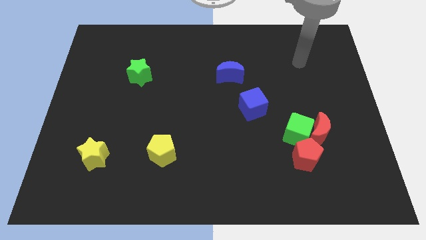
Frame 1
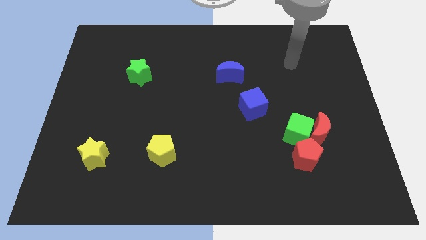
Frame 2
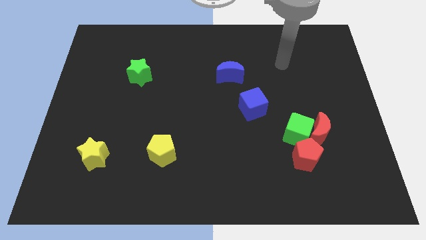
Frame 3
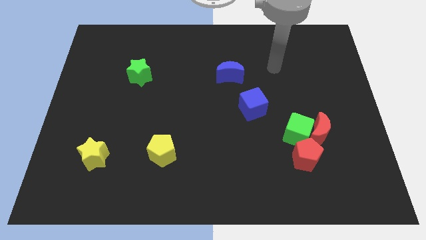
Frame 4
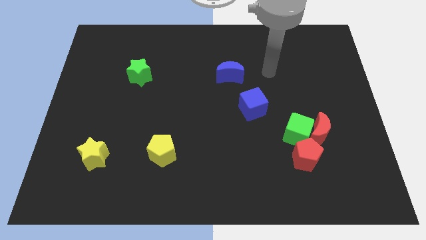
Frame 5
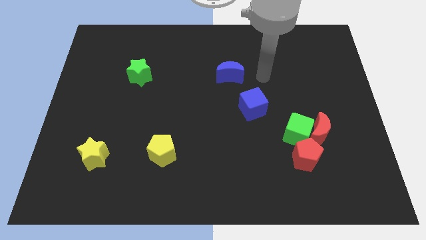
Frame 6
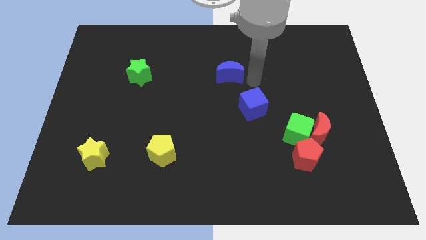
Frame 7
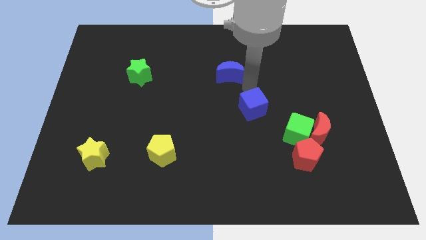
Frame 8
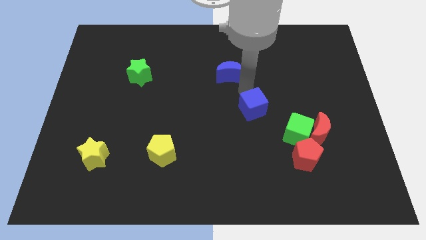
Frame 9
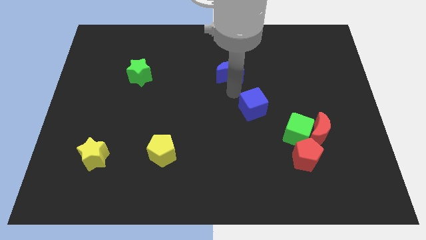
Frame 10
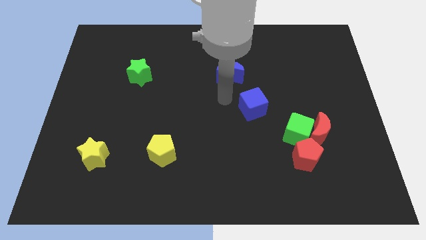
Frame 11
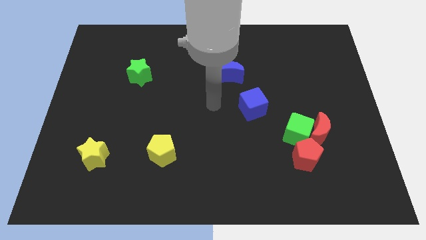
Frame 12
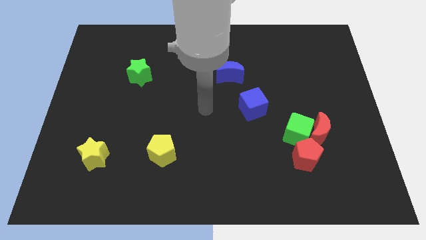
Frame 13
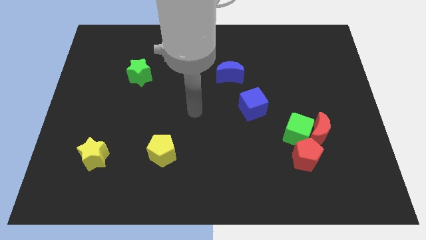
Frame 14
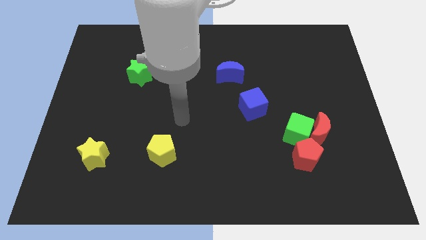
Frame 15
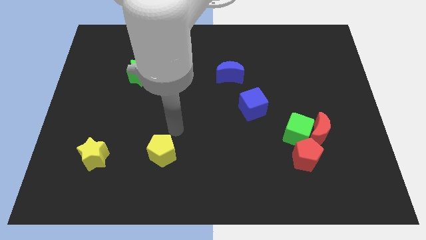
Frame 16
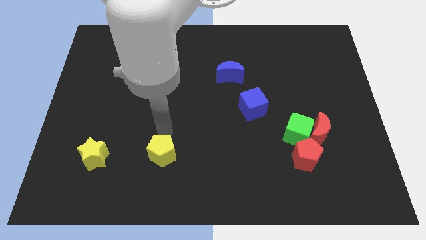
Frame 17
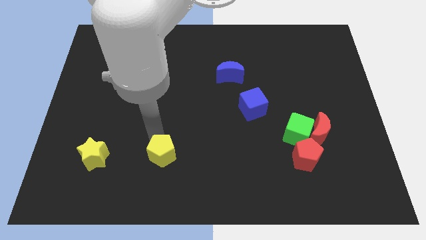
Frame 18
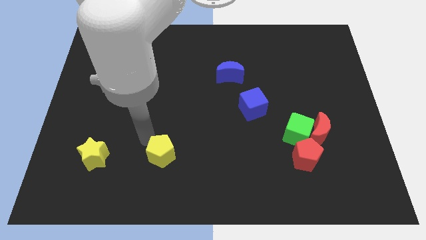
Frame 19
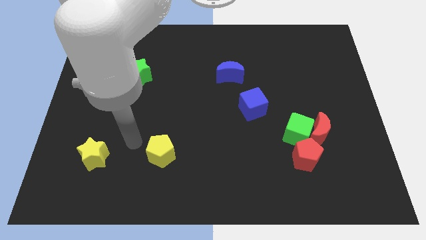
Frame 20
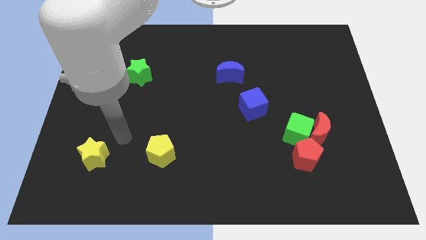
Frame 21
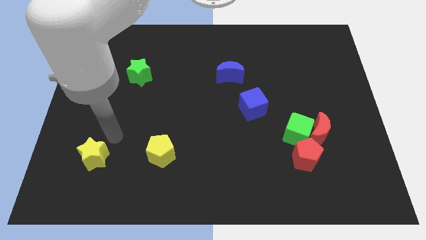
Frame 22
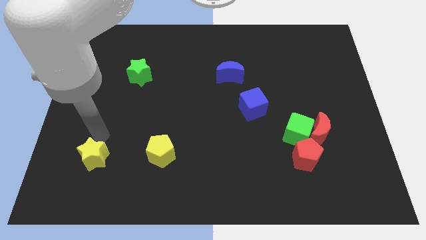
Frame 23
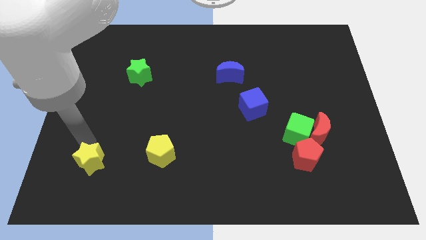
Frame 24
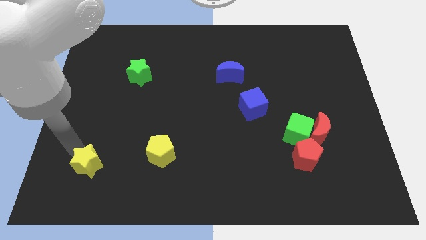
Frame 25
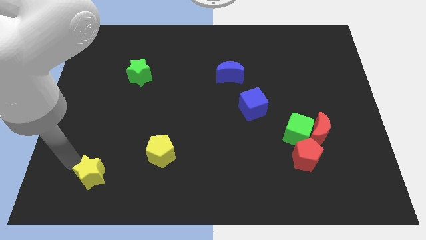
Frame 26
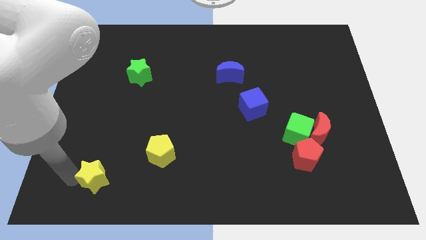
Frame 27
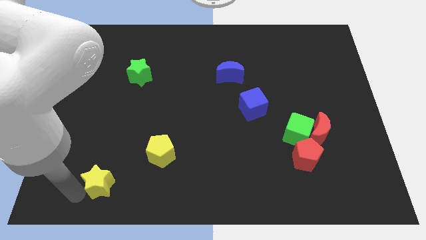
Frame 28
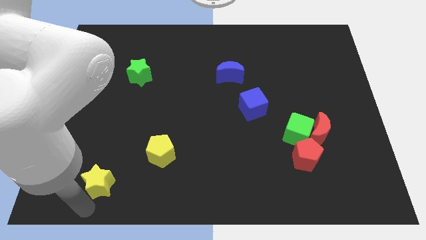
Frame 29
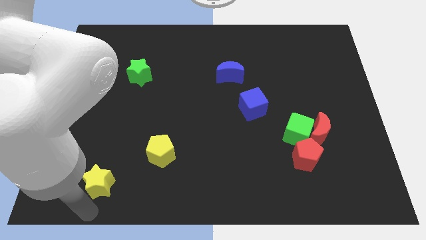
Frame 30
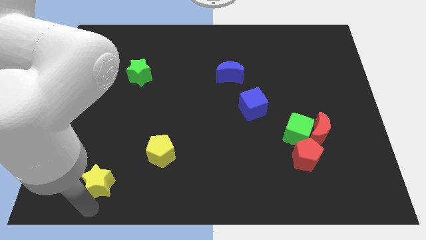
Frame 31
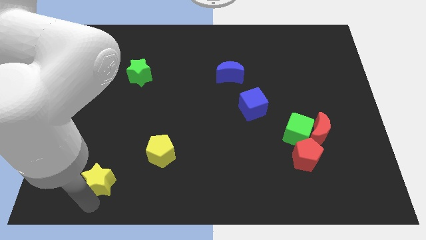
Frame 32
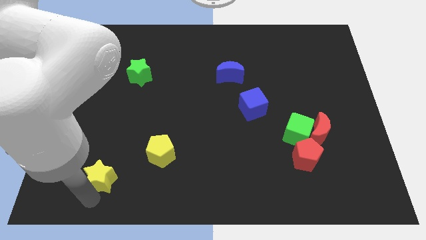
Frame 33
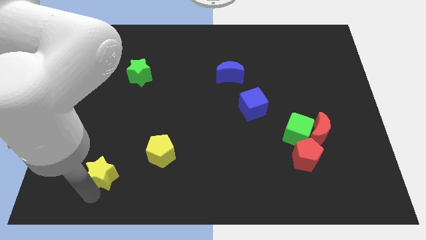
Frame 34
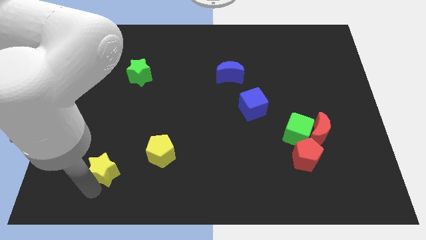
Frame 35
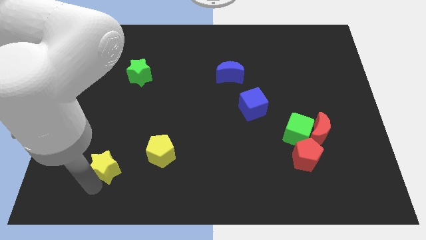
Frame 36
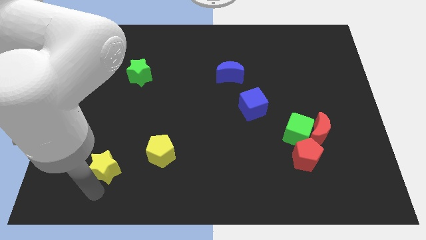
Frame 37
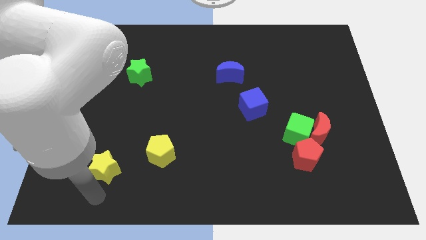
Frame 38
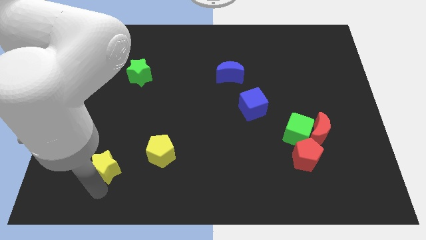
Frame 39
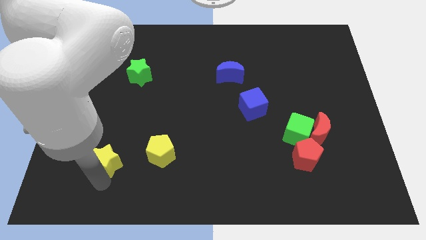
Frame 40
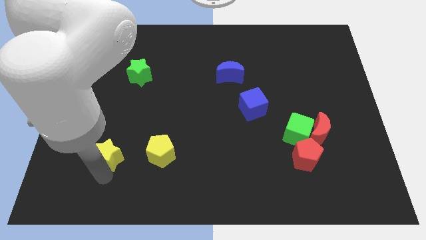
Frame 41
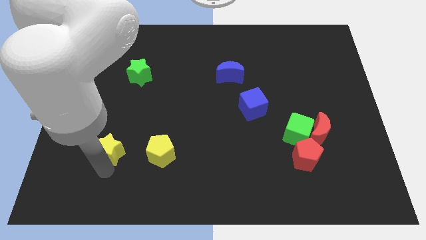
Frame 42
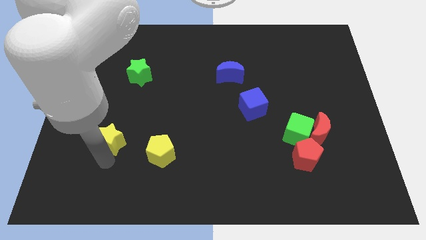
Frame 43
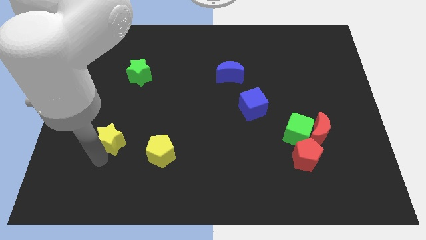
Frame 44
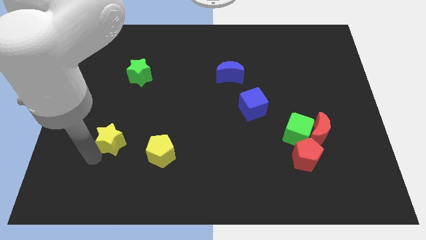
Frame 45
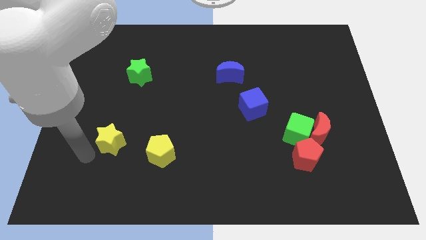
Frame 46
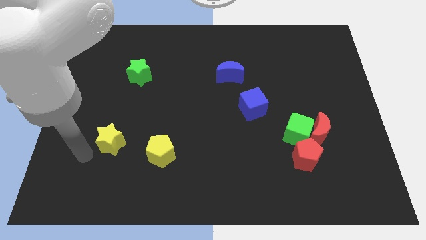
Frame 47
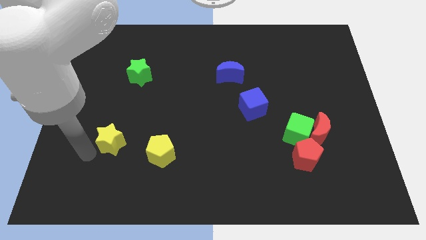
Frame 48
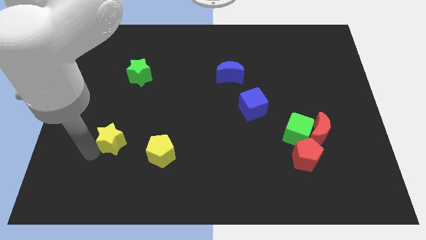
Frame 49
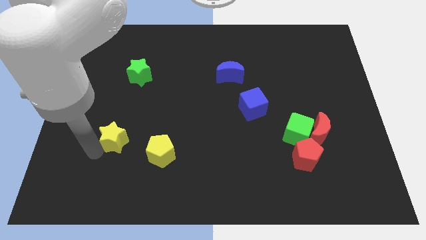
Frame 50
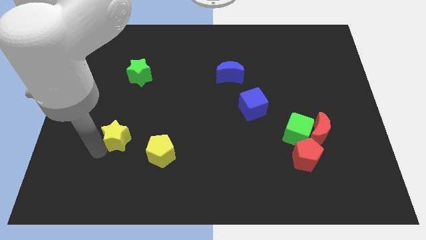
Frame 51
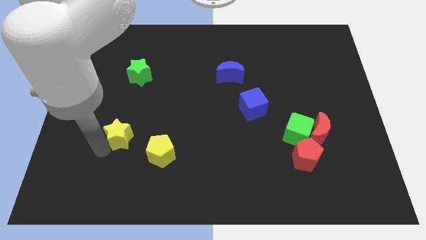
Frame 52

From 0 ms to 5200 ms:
move the yellow star upwards and then to the right a bit

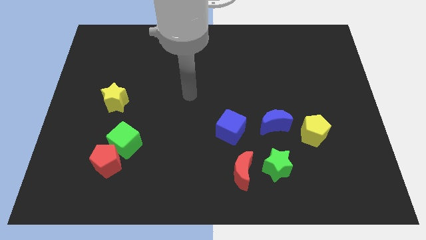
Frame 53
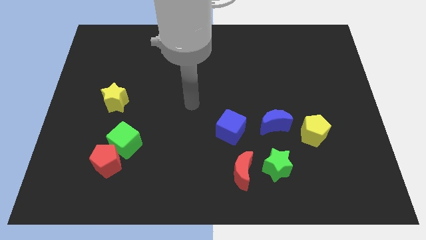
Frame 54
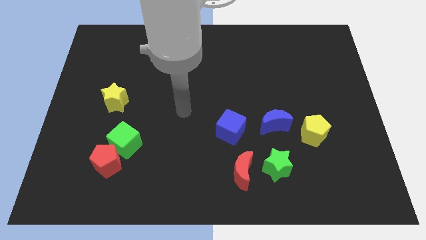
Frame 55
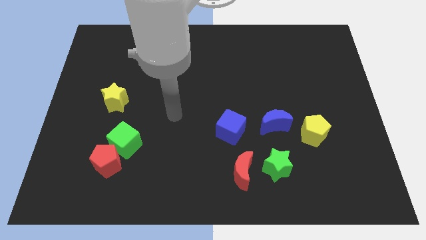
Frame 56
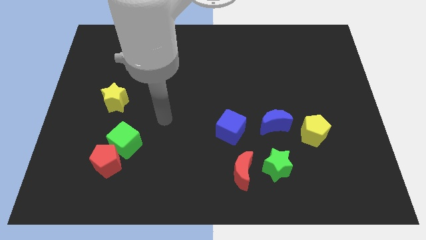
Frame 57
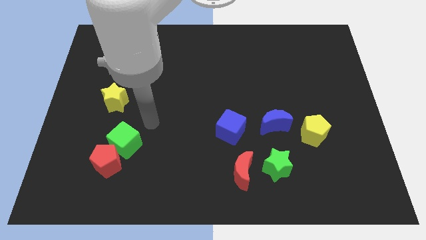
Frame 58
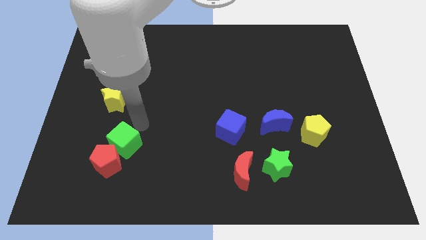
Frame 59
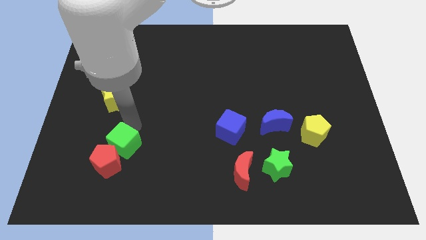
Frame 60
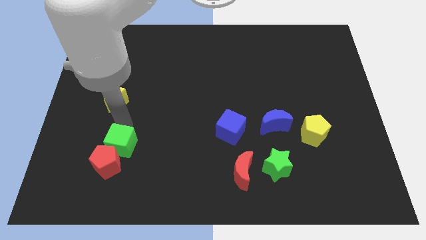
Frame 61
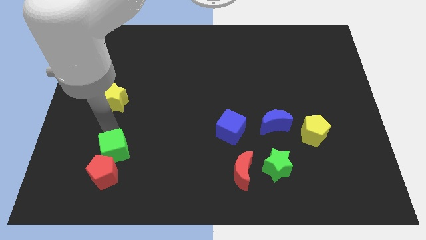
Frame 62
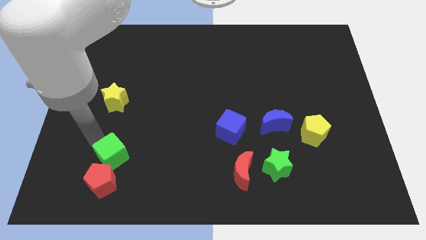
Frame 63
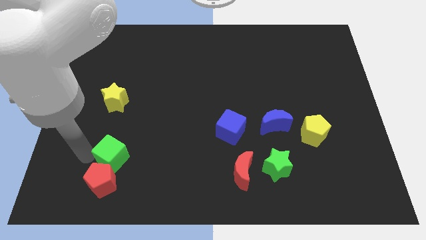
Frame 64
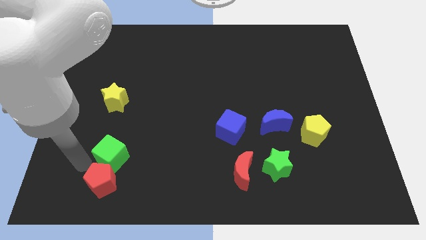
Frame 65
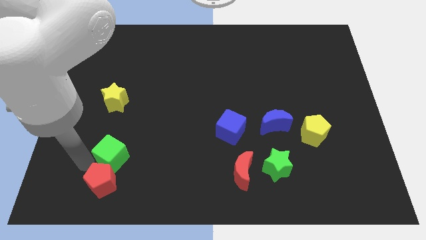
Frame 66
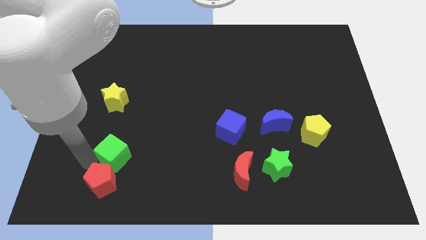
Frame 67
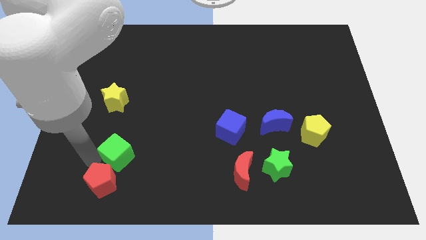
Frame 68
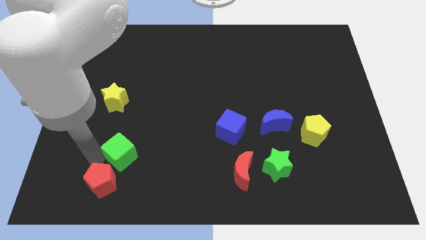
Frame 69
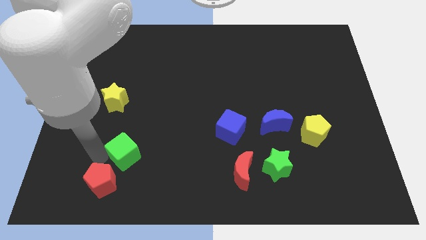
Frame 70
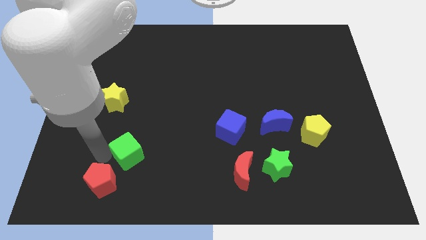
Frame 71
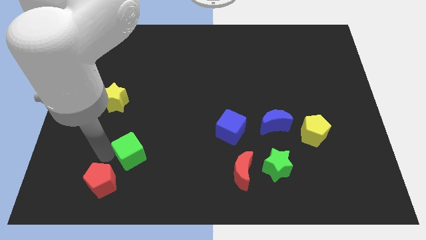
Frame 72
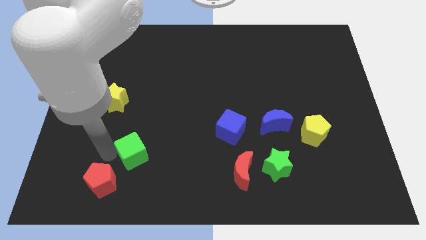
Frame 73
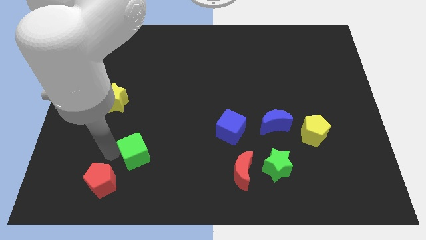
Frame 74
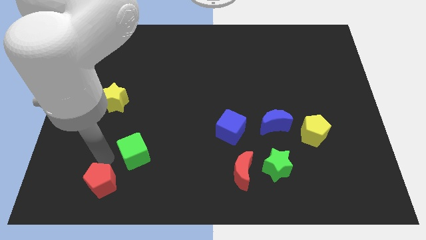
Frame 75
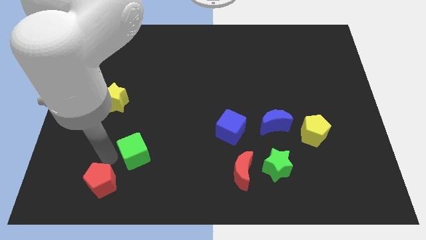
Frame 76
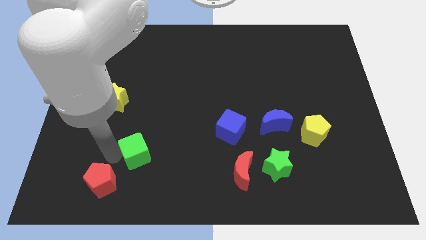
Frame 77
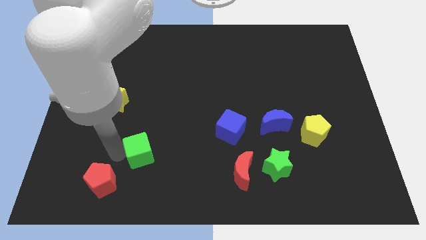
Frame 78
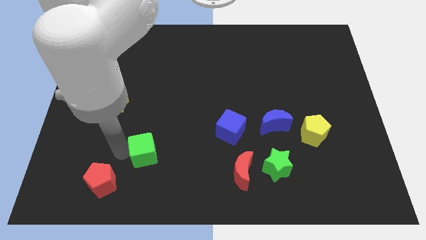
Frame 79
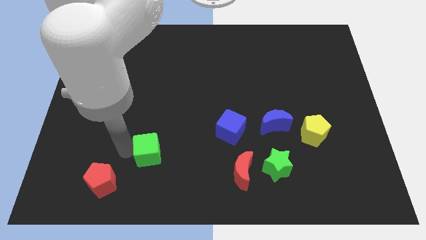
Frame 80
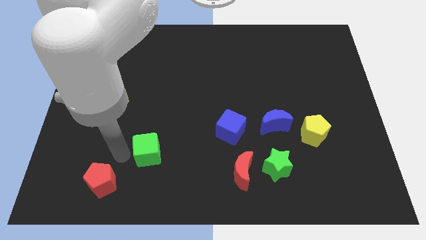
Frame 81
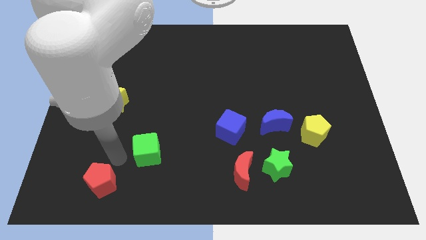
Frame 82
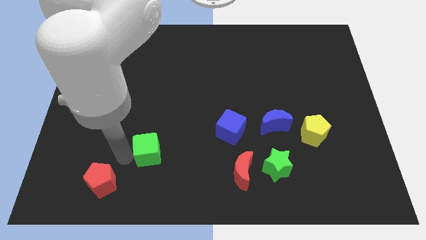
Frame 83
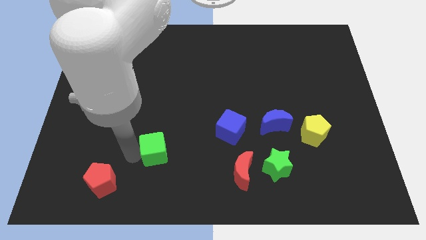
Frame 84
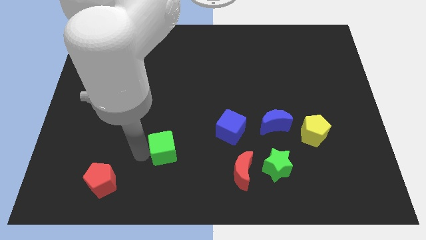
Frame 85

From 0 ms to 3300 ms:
push the green cube slightly to the right
